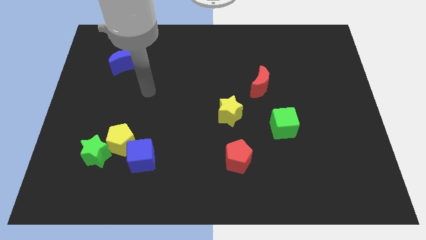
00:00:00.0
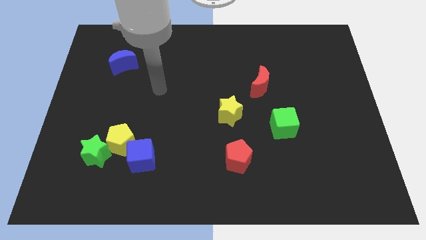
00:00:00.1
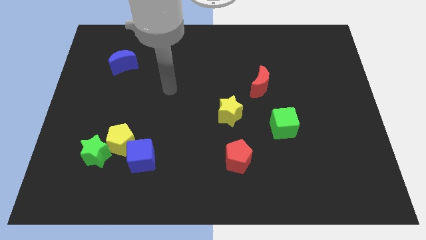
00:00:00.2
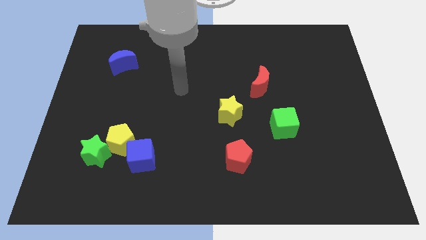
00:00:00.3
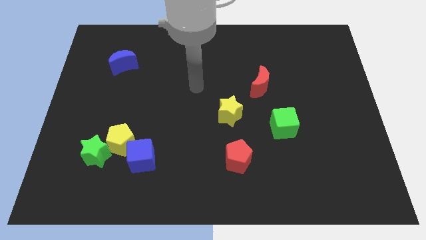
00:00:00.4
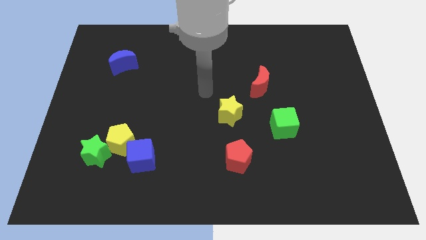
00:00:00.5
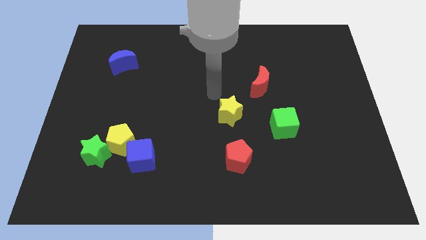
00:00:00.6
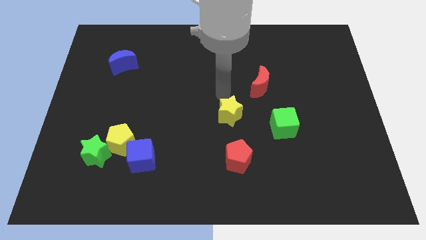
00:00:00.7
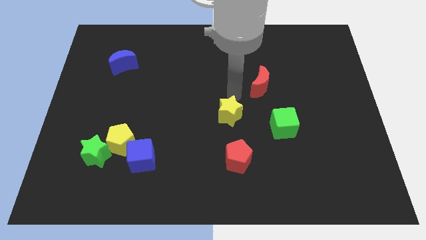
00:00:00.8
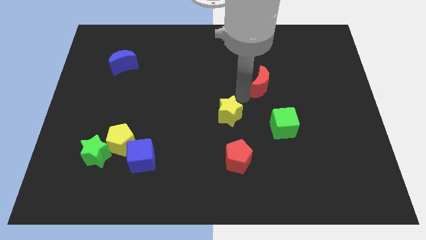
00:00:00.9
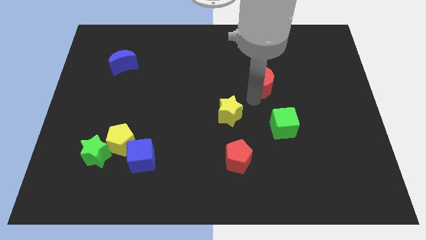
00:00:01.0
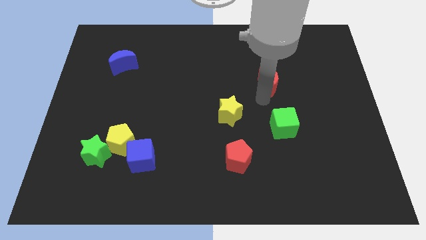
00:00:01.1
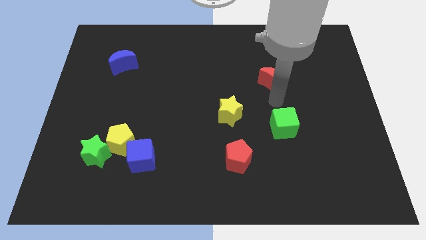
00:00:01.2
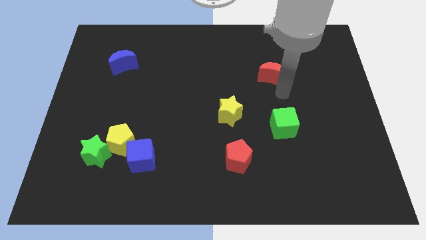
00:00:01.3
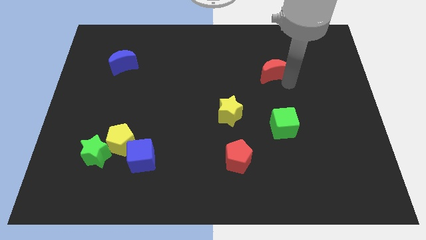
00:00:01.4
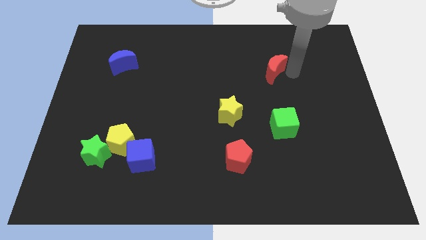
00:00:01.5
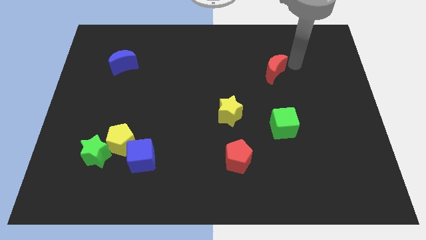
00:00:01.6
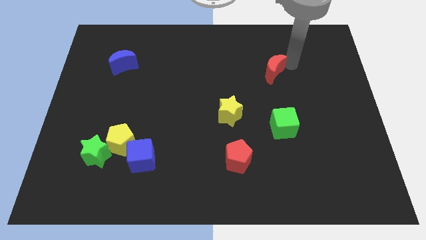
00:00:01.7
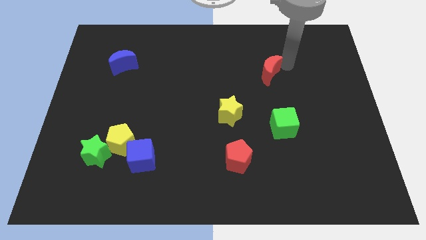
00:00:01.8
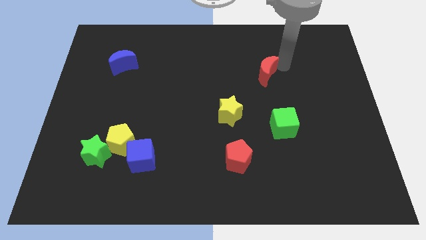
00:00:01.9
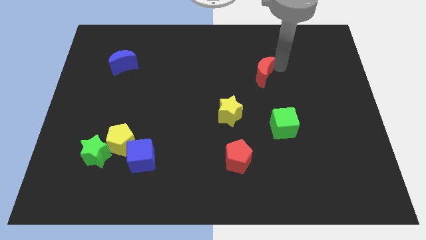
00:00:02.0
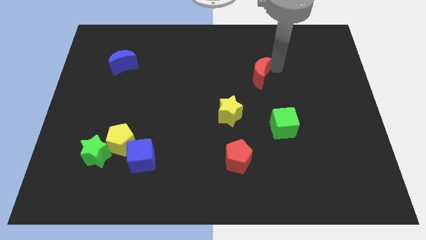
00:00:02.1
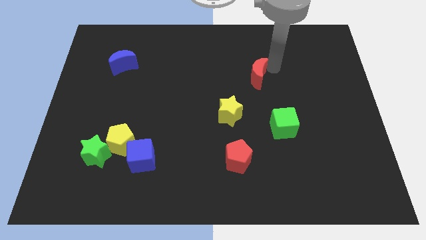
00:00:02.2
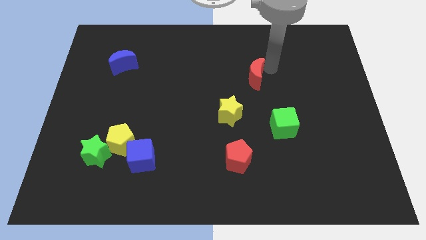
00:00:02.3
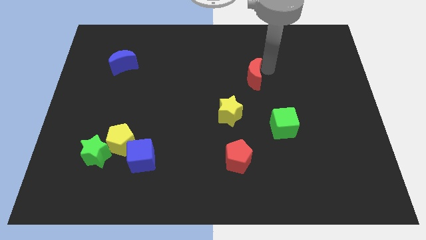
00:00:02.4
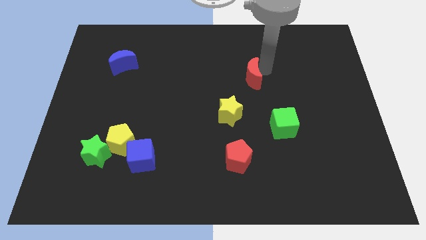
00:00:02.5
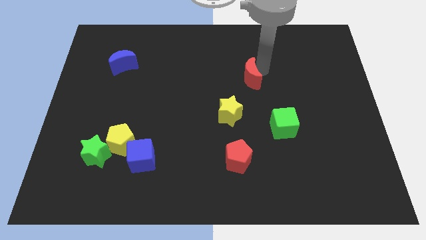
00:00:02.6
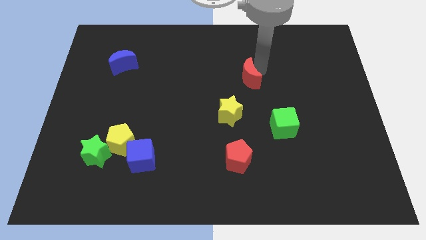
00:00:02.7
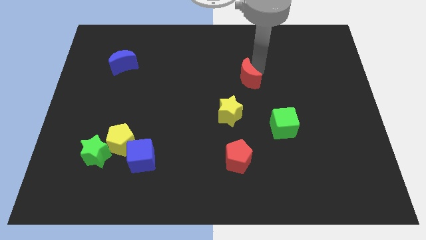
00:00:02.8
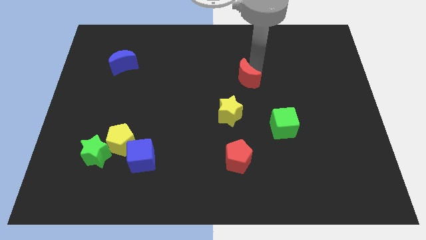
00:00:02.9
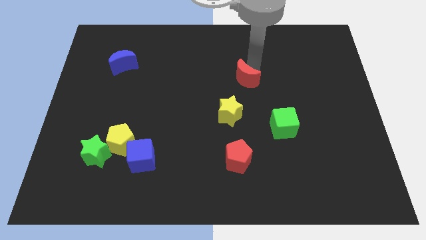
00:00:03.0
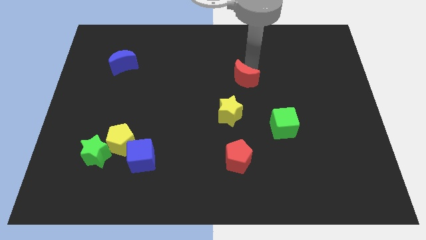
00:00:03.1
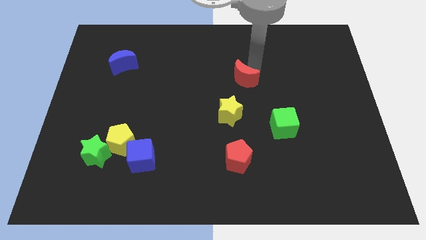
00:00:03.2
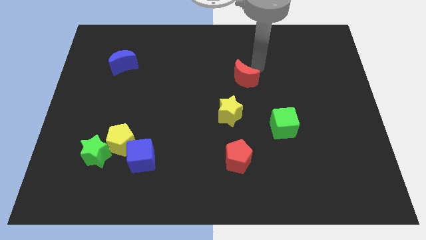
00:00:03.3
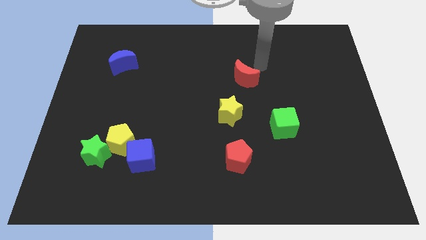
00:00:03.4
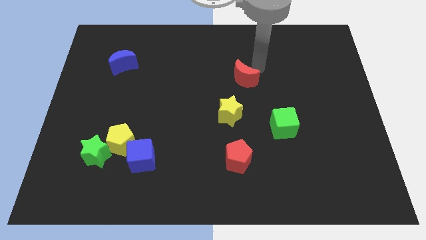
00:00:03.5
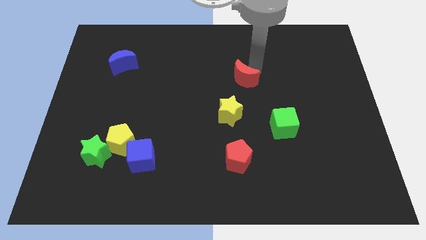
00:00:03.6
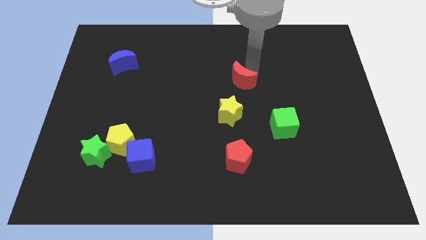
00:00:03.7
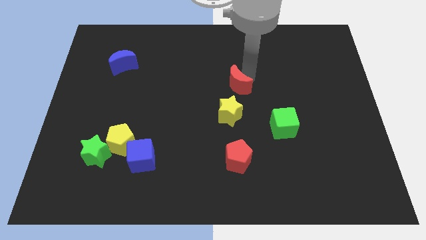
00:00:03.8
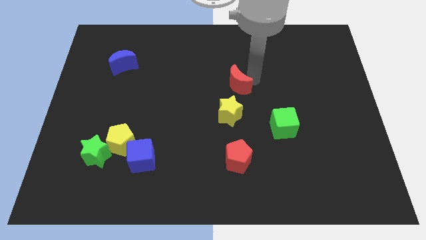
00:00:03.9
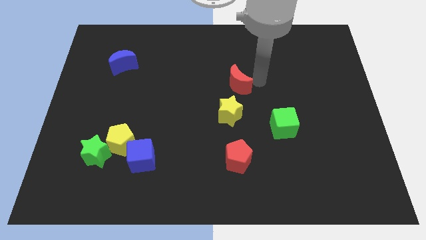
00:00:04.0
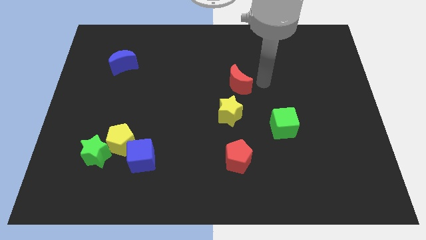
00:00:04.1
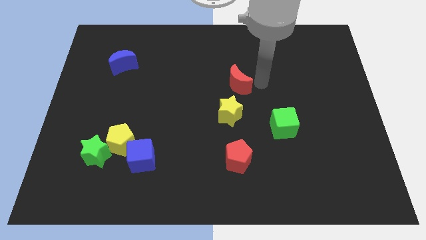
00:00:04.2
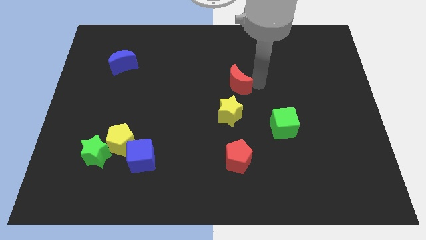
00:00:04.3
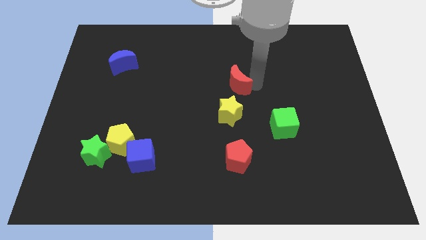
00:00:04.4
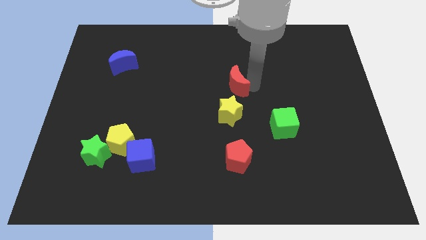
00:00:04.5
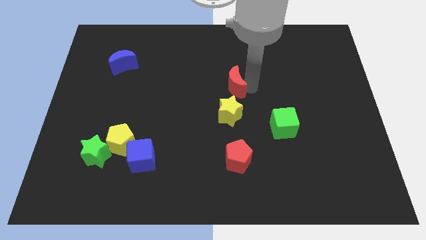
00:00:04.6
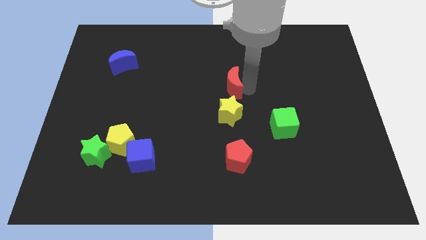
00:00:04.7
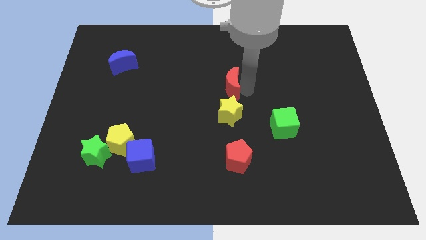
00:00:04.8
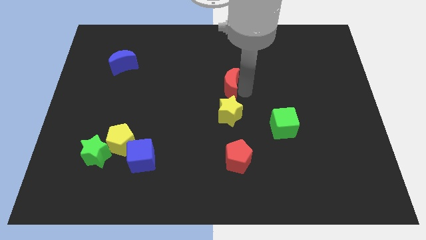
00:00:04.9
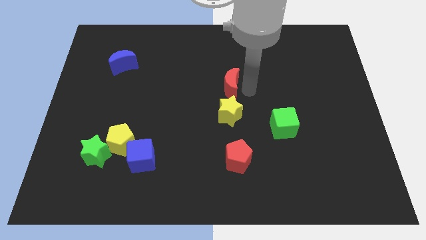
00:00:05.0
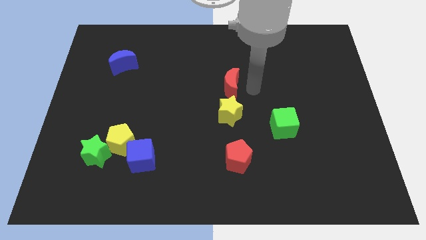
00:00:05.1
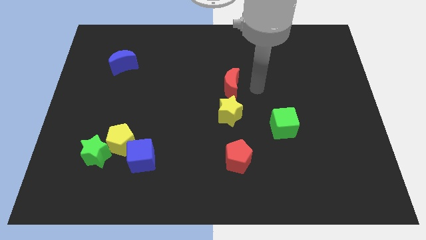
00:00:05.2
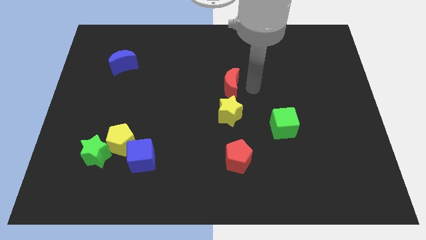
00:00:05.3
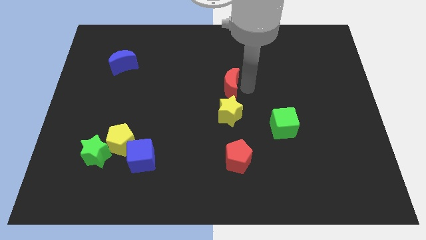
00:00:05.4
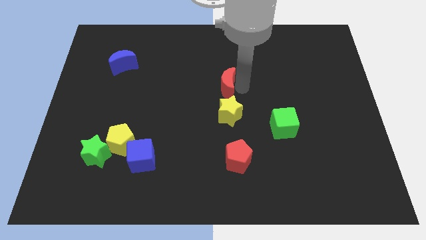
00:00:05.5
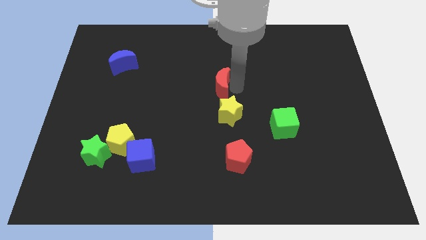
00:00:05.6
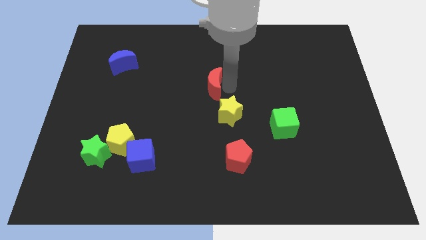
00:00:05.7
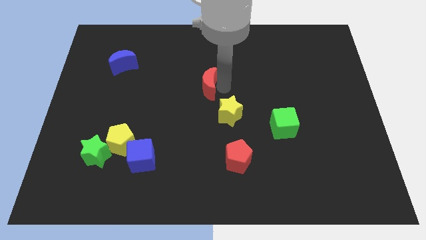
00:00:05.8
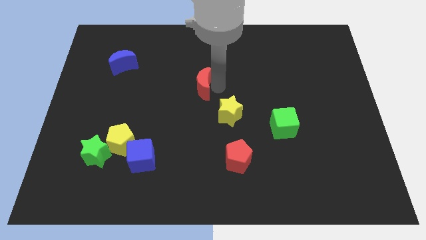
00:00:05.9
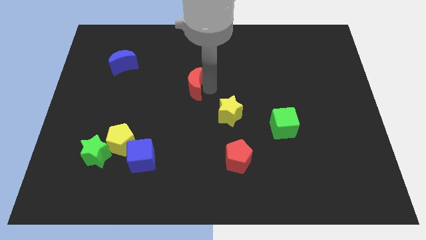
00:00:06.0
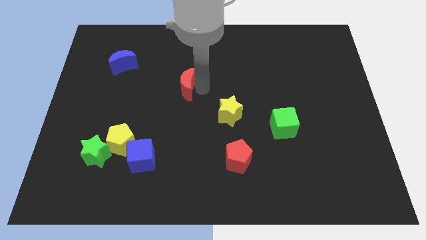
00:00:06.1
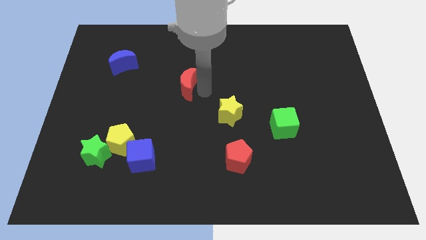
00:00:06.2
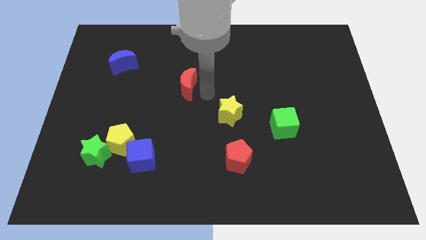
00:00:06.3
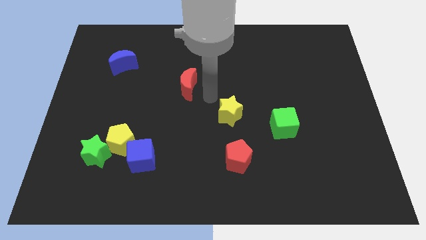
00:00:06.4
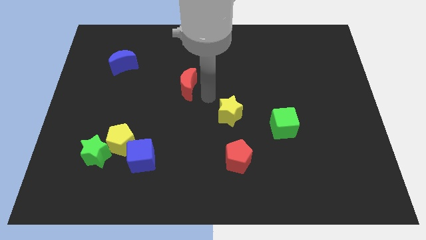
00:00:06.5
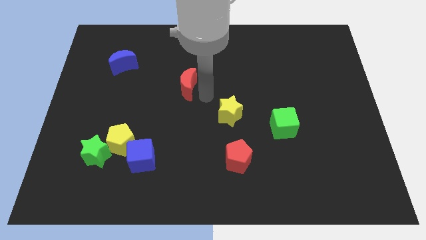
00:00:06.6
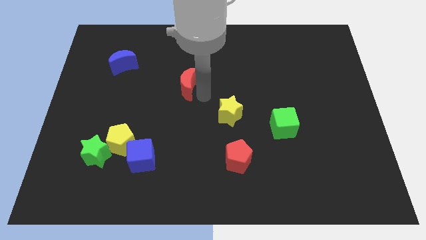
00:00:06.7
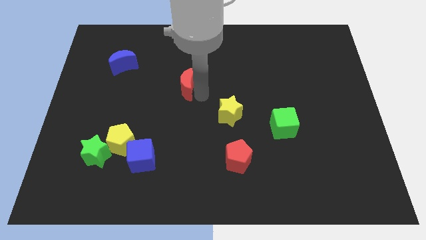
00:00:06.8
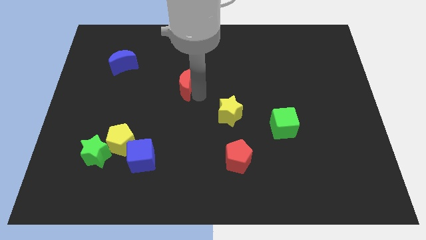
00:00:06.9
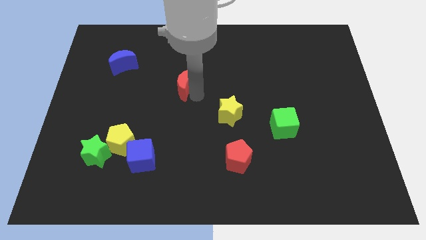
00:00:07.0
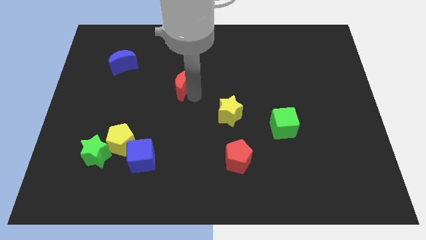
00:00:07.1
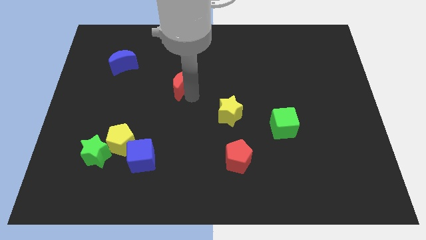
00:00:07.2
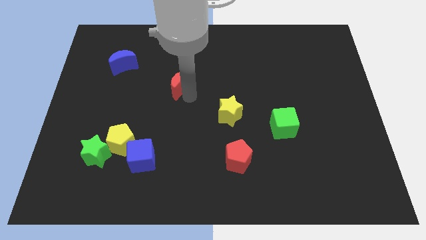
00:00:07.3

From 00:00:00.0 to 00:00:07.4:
push the red moon left
